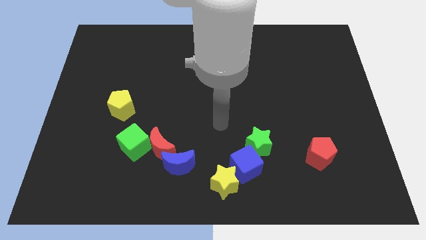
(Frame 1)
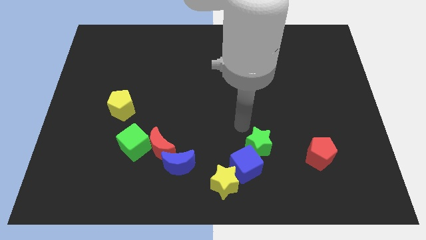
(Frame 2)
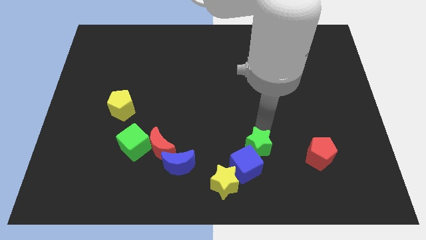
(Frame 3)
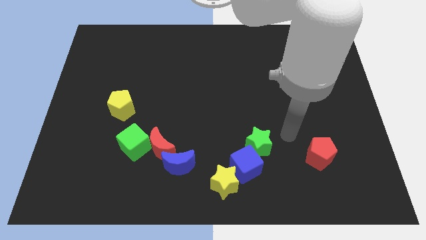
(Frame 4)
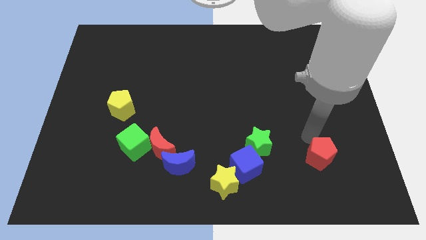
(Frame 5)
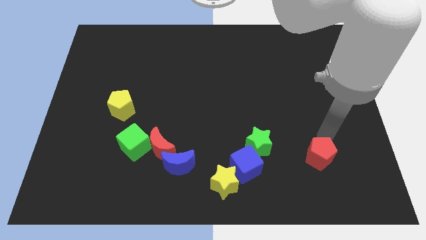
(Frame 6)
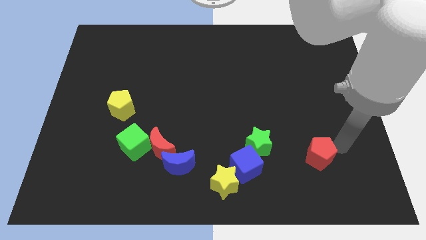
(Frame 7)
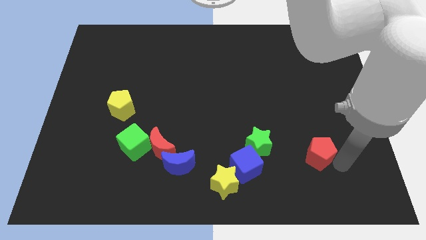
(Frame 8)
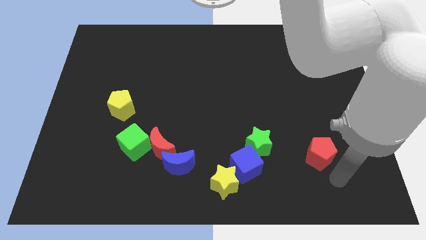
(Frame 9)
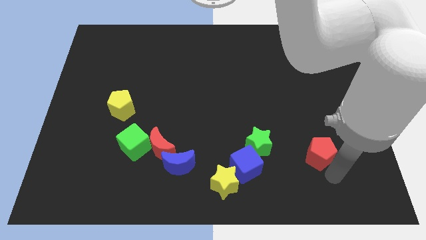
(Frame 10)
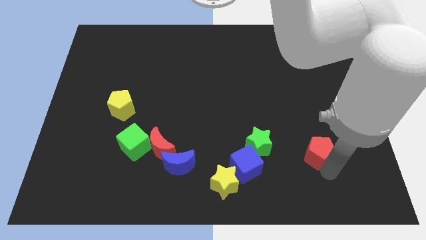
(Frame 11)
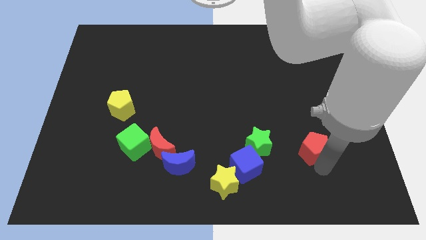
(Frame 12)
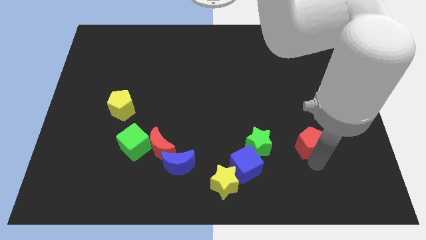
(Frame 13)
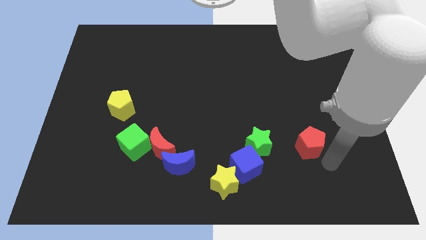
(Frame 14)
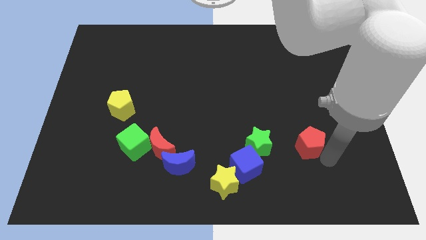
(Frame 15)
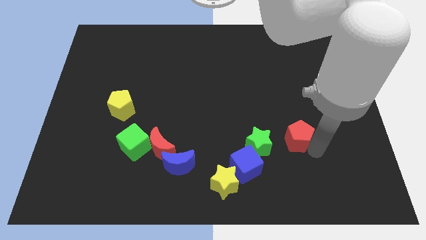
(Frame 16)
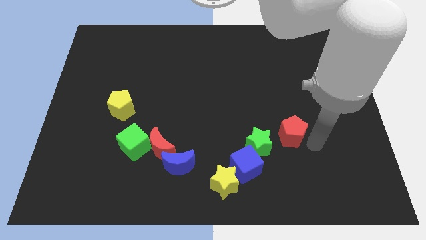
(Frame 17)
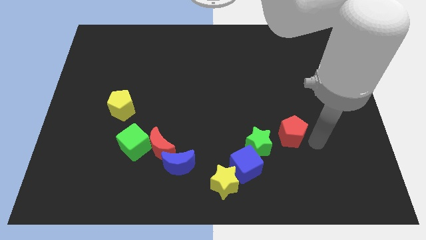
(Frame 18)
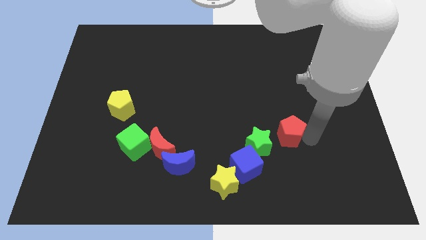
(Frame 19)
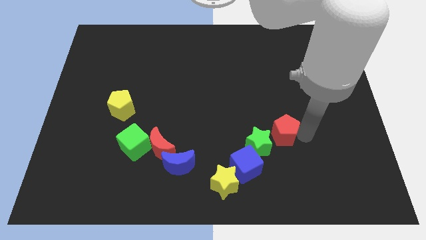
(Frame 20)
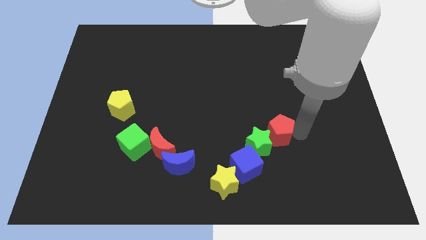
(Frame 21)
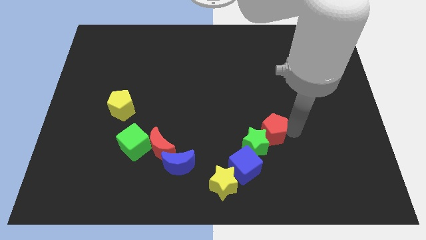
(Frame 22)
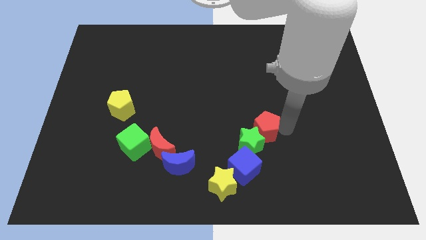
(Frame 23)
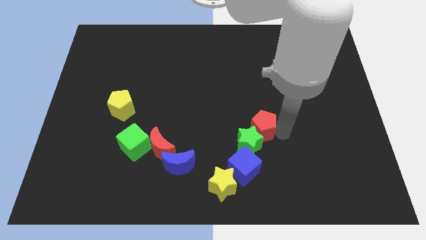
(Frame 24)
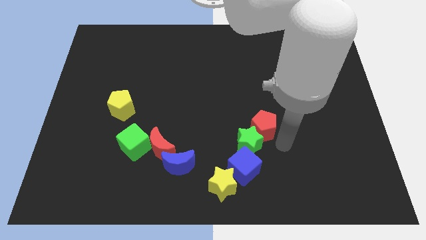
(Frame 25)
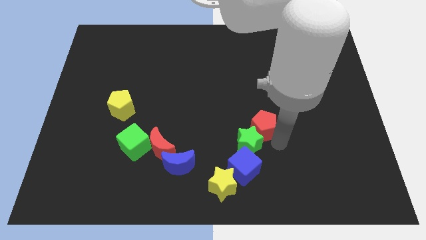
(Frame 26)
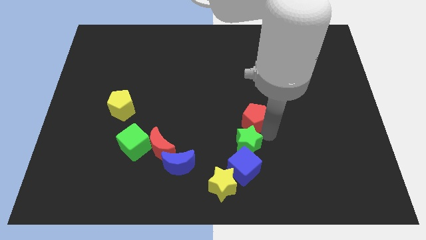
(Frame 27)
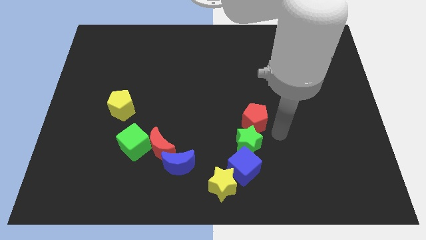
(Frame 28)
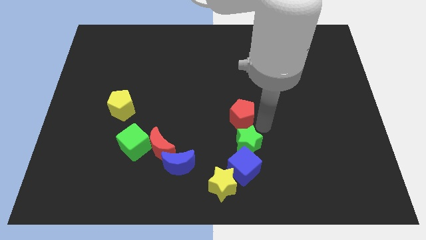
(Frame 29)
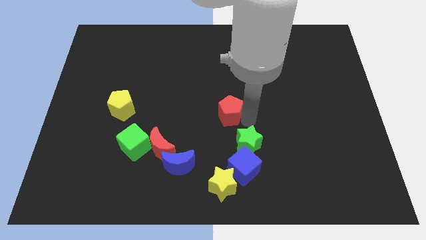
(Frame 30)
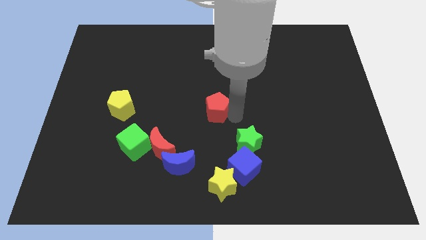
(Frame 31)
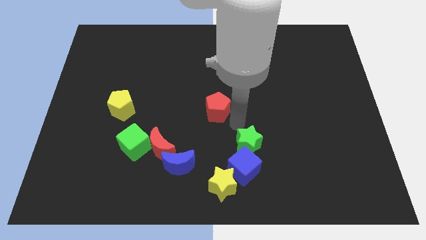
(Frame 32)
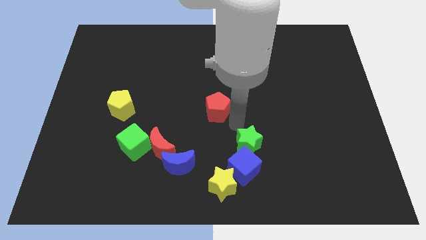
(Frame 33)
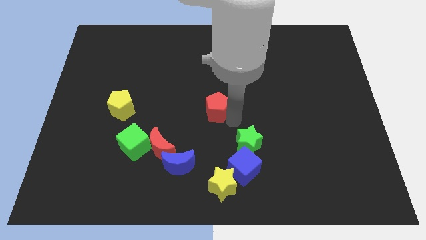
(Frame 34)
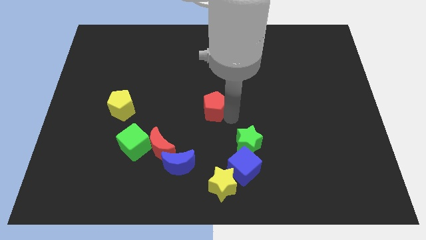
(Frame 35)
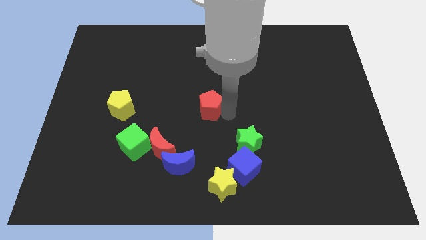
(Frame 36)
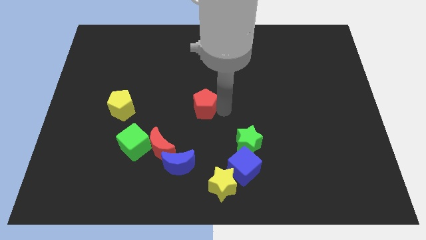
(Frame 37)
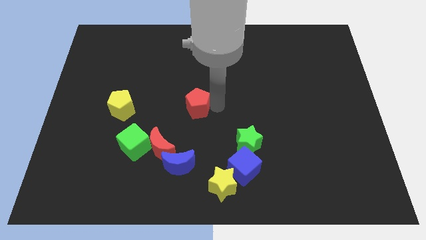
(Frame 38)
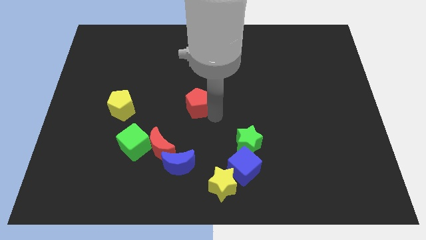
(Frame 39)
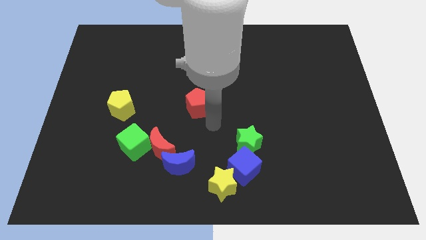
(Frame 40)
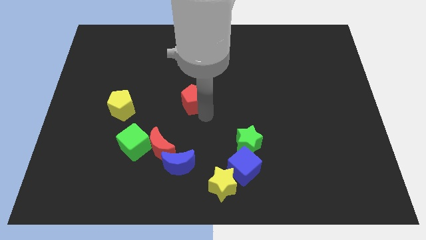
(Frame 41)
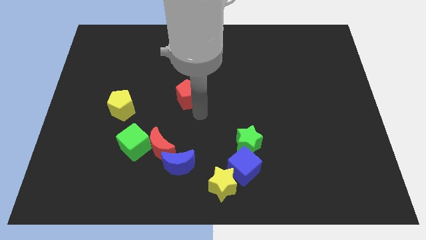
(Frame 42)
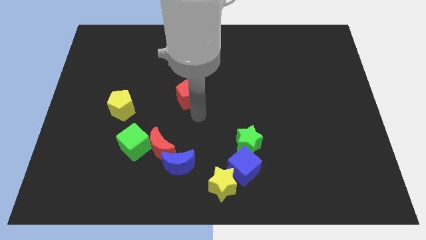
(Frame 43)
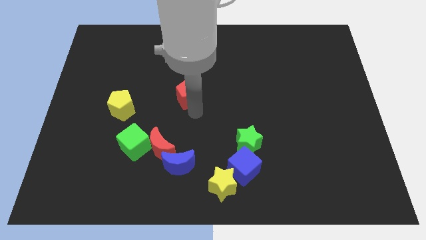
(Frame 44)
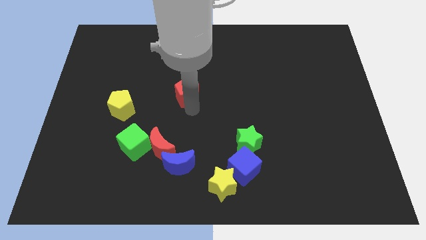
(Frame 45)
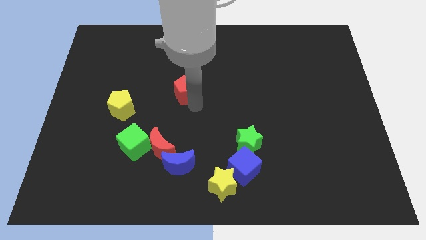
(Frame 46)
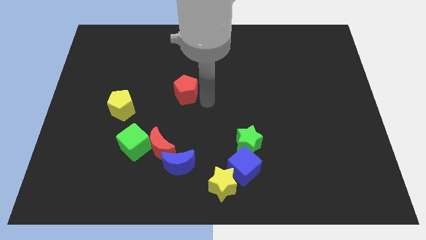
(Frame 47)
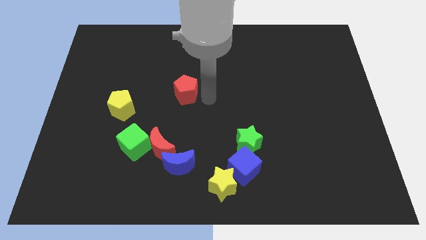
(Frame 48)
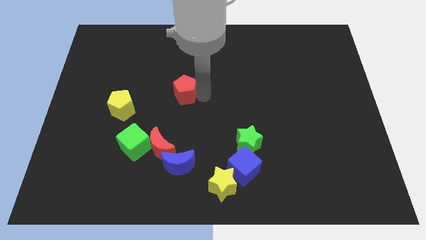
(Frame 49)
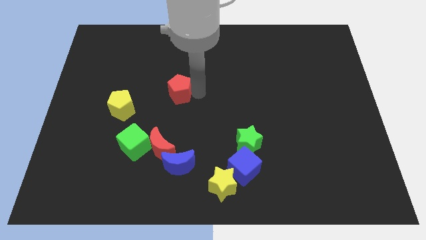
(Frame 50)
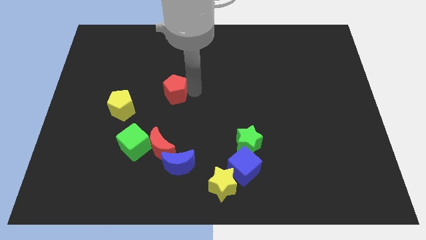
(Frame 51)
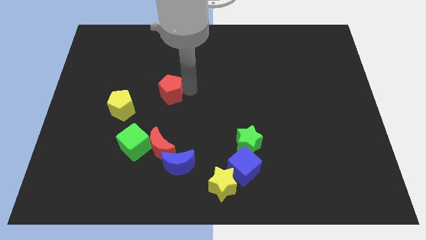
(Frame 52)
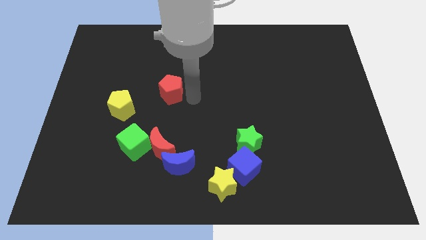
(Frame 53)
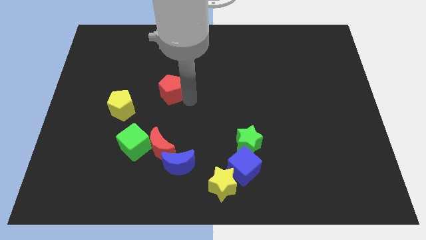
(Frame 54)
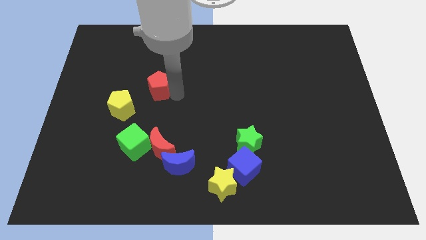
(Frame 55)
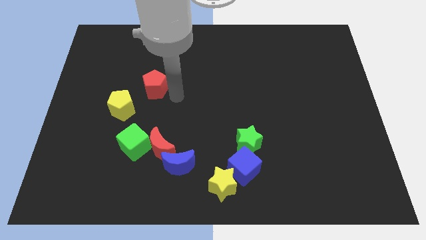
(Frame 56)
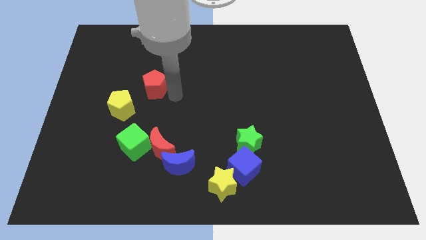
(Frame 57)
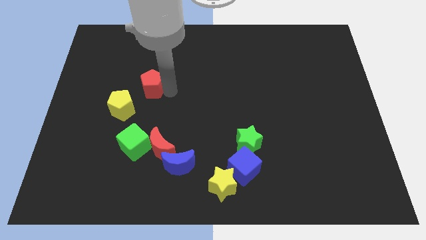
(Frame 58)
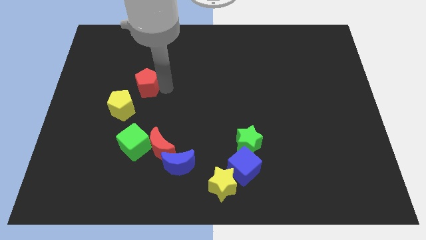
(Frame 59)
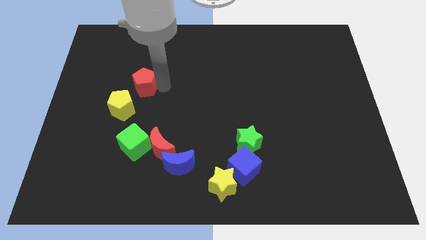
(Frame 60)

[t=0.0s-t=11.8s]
put the red pentagon to the top of the yellow pentagon

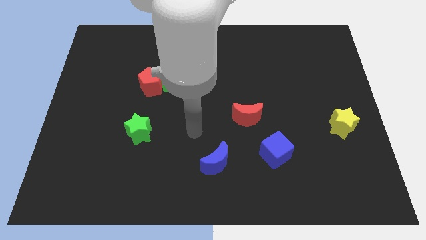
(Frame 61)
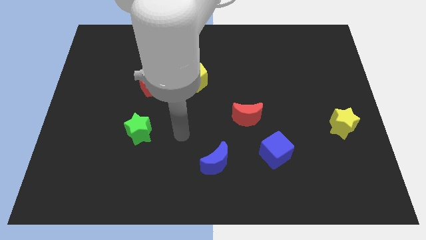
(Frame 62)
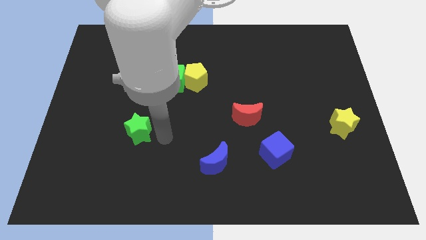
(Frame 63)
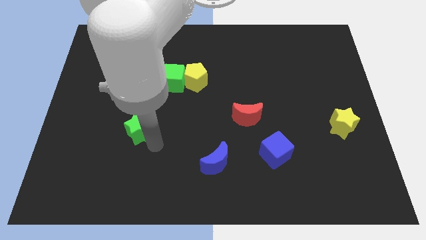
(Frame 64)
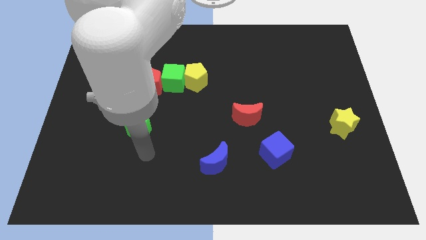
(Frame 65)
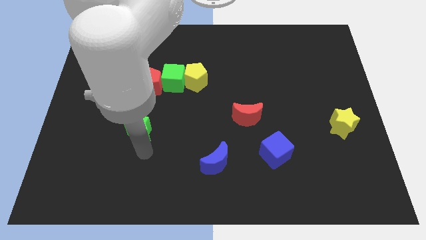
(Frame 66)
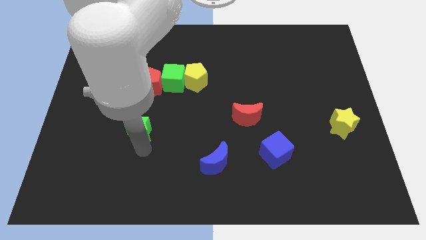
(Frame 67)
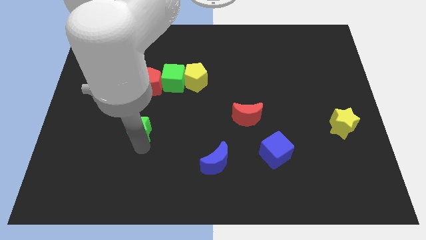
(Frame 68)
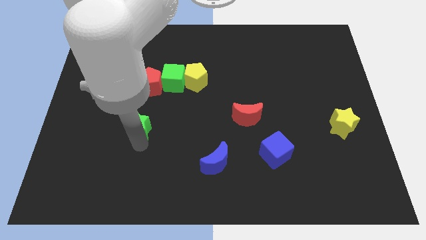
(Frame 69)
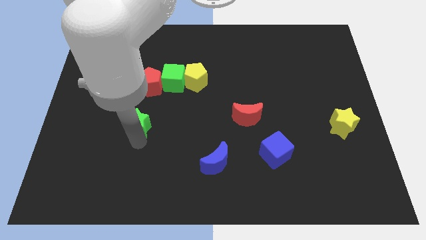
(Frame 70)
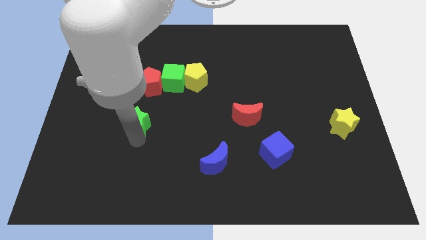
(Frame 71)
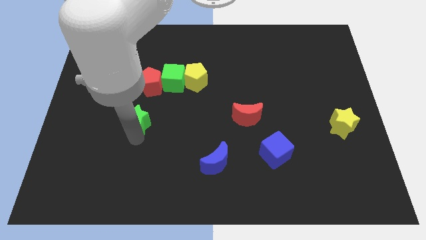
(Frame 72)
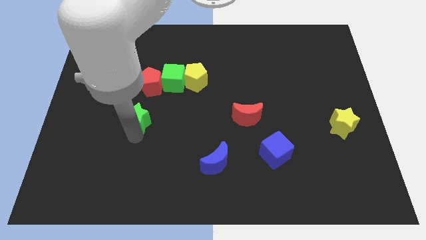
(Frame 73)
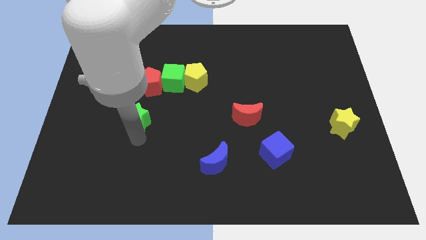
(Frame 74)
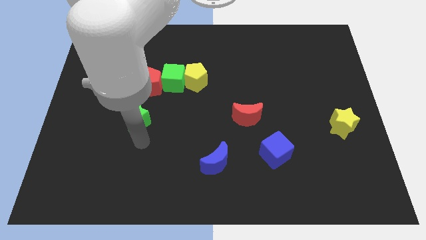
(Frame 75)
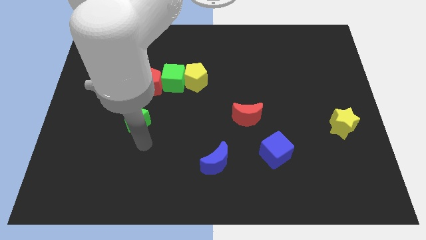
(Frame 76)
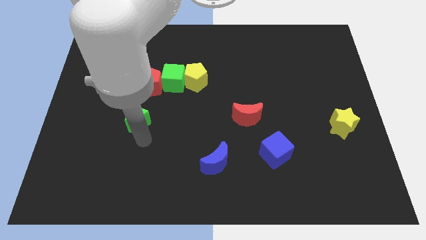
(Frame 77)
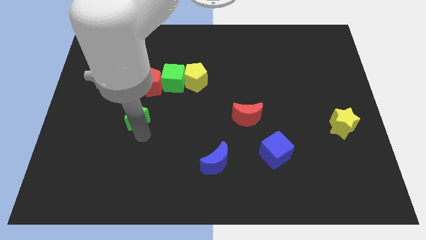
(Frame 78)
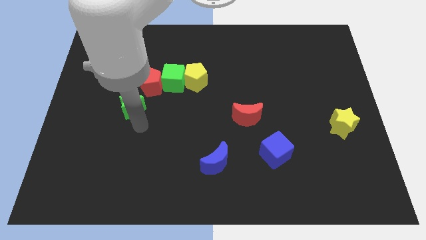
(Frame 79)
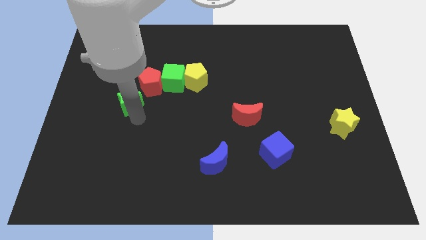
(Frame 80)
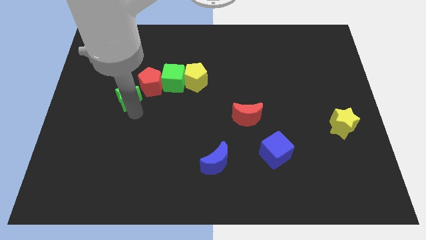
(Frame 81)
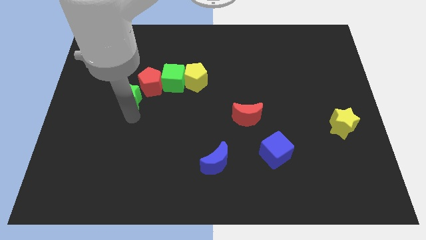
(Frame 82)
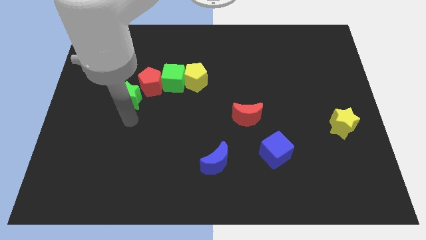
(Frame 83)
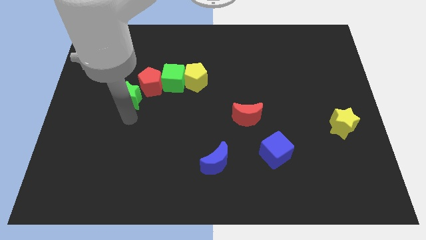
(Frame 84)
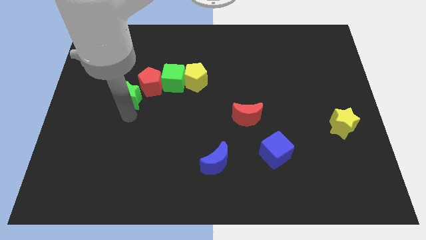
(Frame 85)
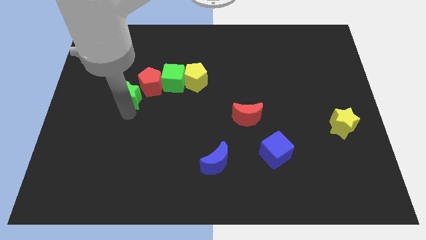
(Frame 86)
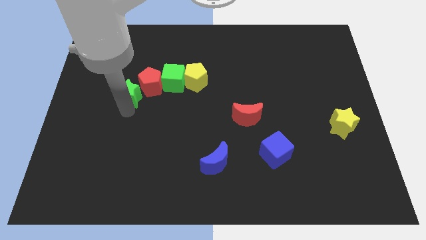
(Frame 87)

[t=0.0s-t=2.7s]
put the green star to the left side of the green cube
